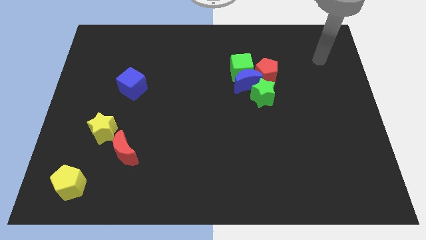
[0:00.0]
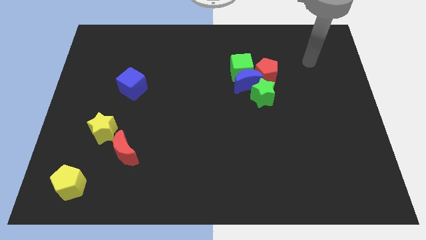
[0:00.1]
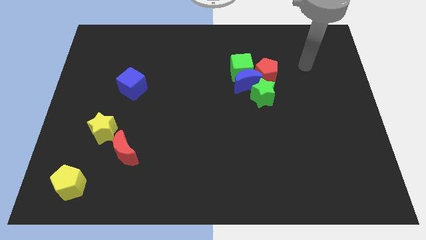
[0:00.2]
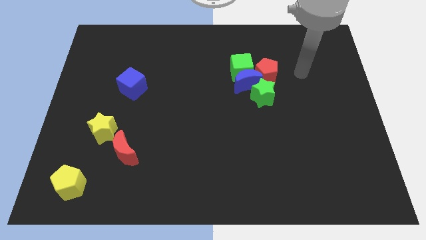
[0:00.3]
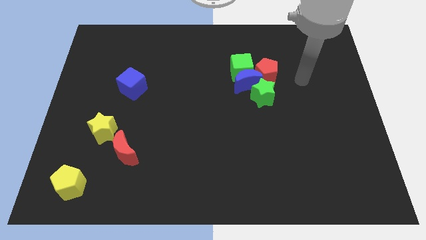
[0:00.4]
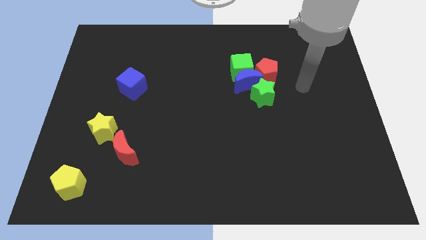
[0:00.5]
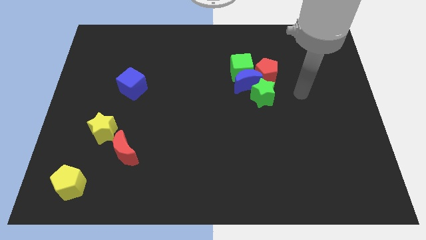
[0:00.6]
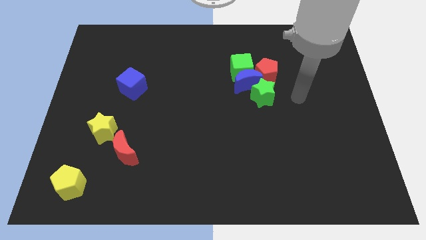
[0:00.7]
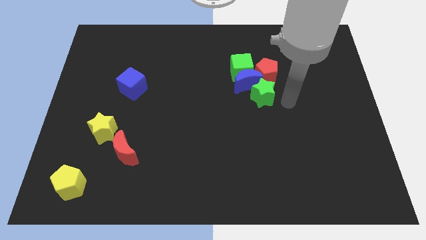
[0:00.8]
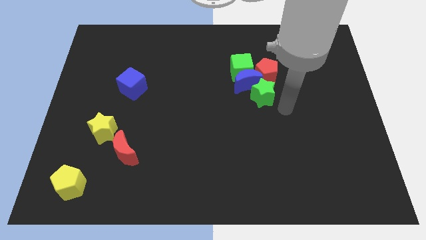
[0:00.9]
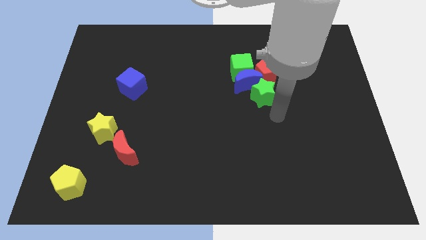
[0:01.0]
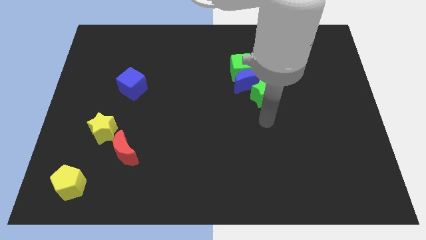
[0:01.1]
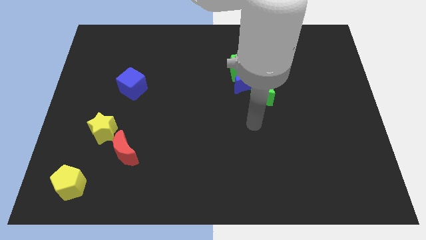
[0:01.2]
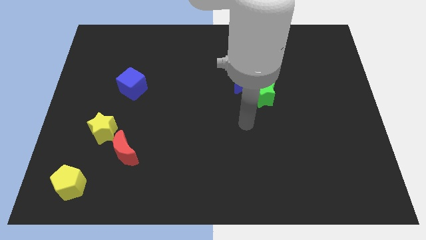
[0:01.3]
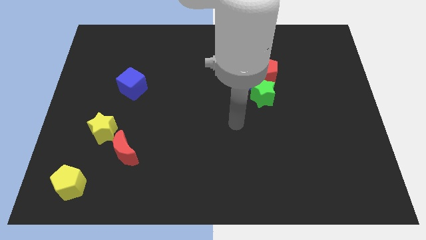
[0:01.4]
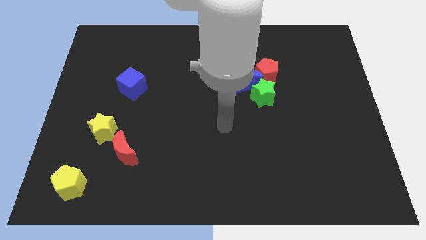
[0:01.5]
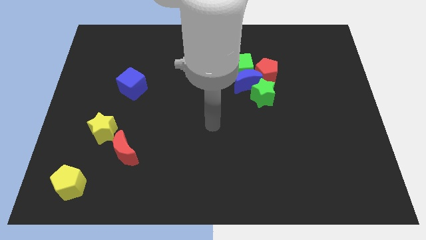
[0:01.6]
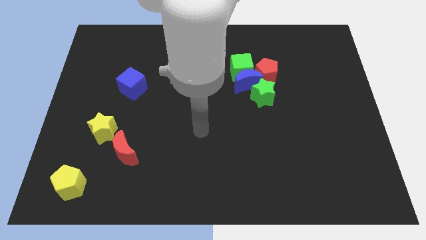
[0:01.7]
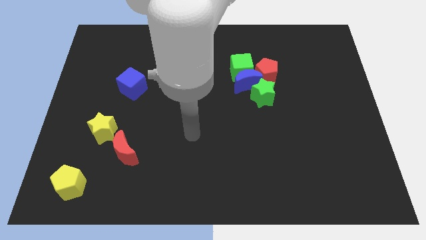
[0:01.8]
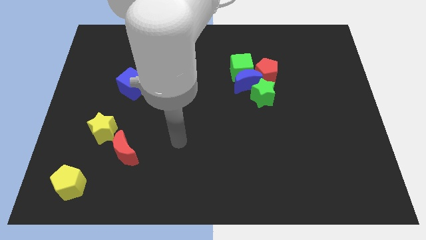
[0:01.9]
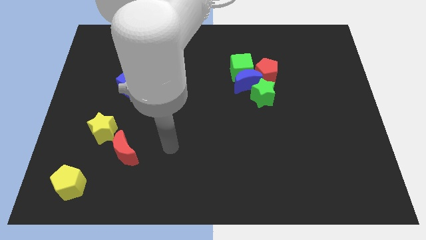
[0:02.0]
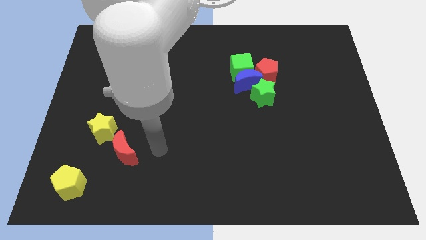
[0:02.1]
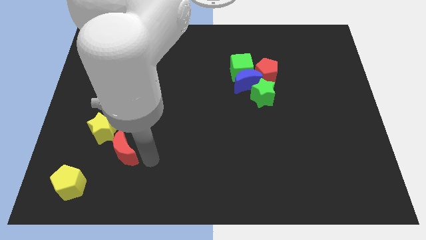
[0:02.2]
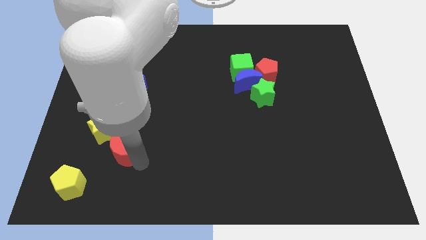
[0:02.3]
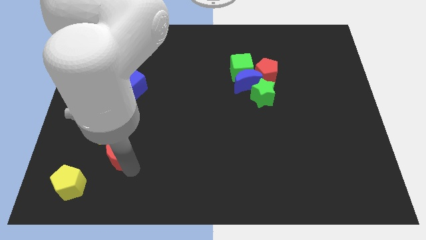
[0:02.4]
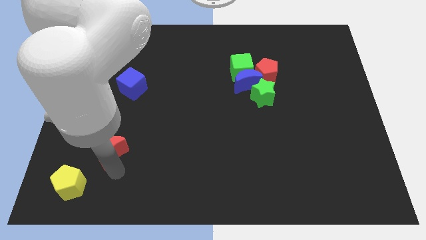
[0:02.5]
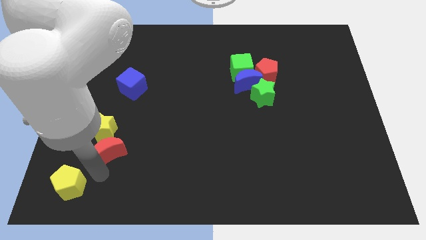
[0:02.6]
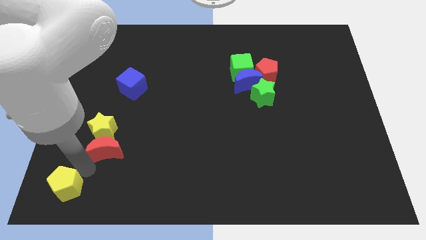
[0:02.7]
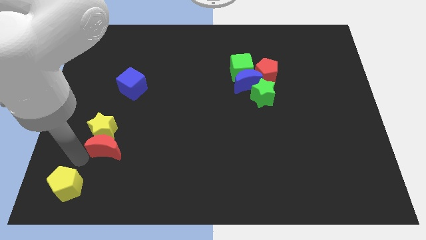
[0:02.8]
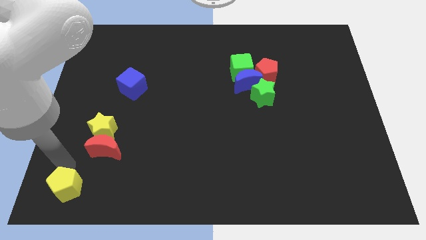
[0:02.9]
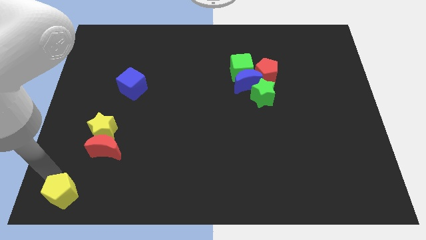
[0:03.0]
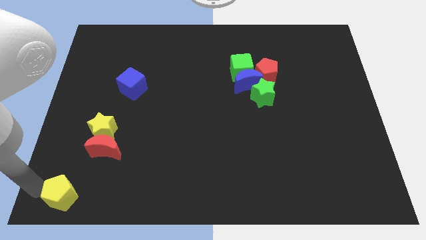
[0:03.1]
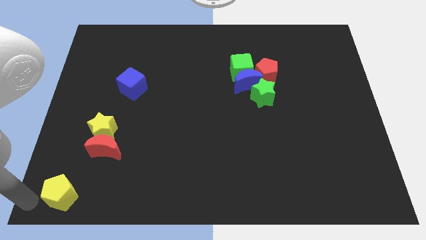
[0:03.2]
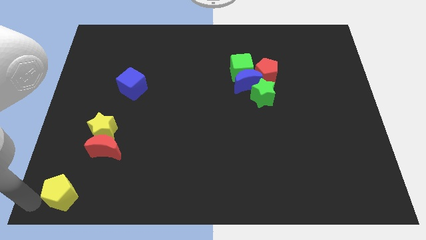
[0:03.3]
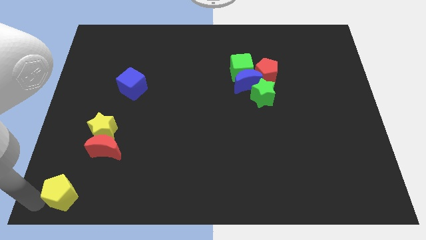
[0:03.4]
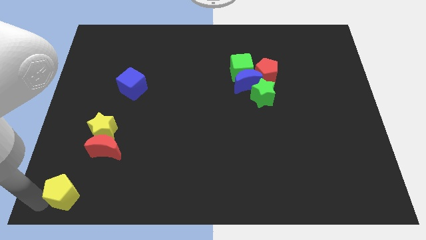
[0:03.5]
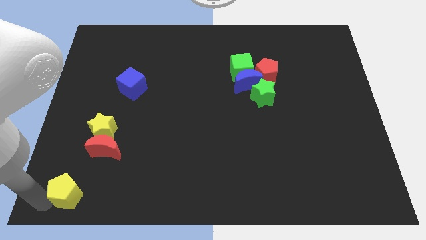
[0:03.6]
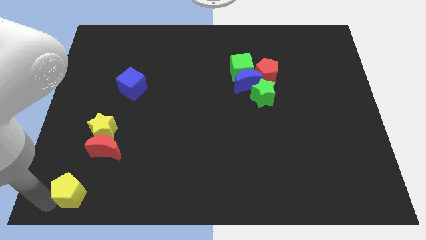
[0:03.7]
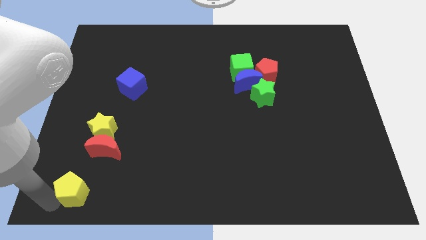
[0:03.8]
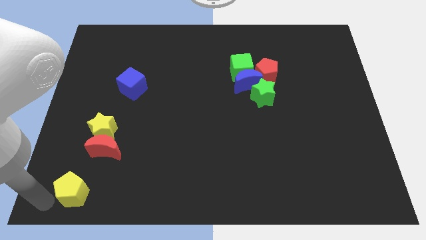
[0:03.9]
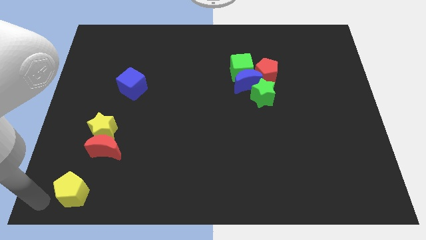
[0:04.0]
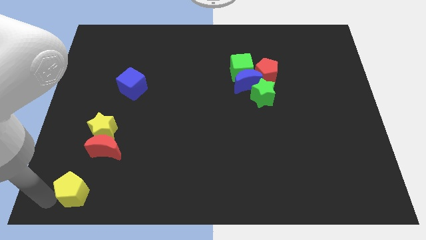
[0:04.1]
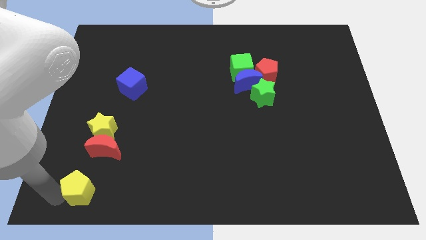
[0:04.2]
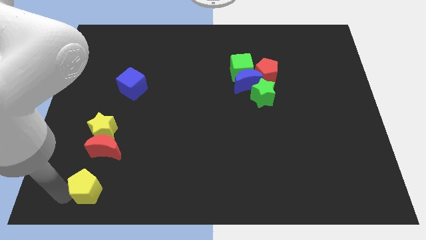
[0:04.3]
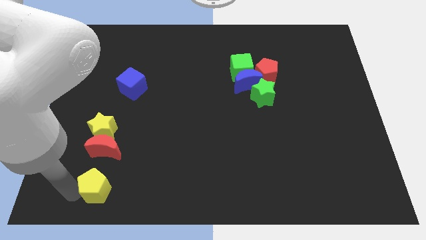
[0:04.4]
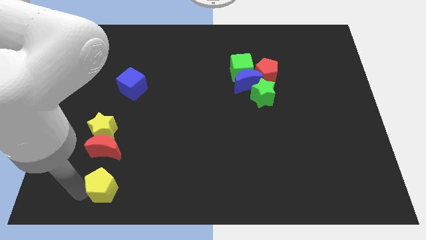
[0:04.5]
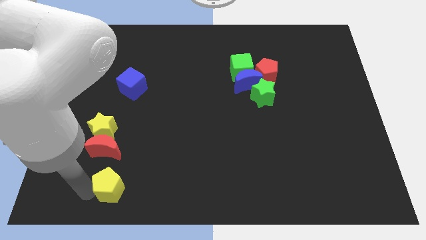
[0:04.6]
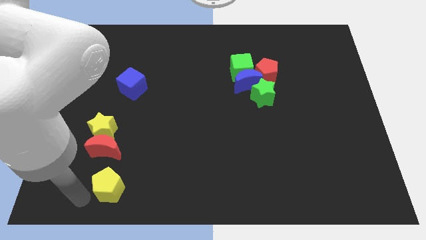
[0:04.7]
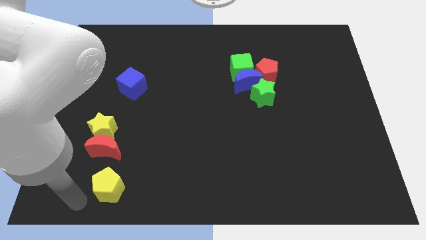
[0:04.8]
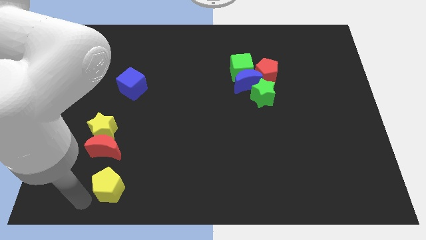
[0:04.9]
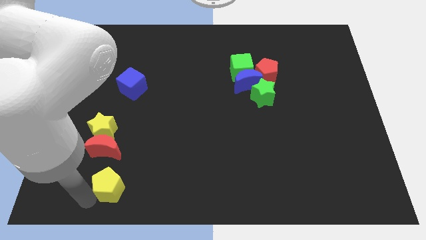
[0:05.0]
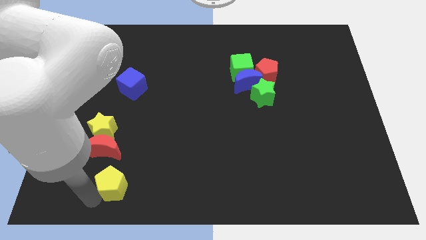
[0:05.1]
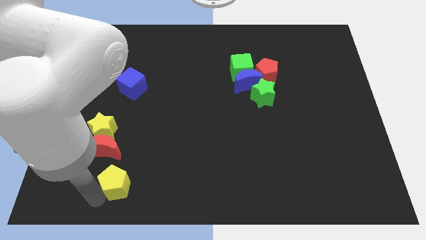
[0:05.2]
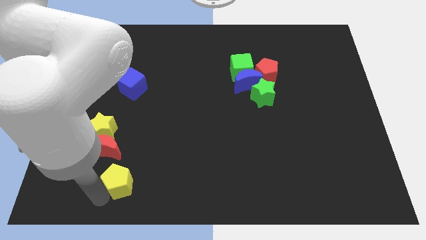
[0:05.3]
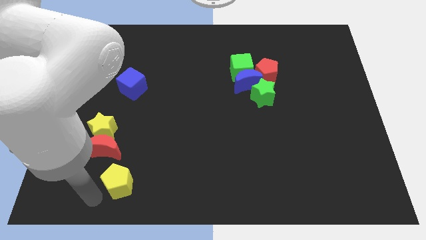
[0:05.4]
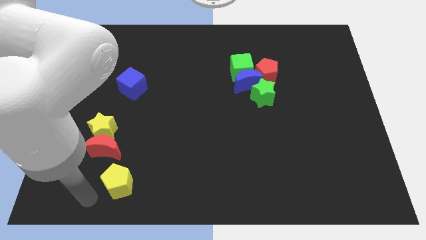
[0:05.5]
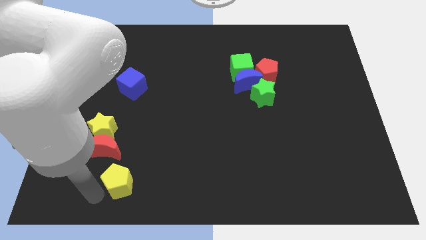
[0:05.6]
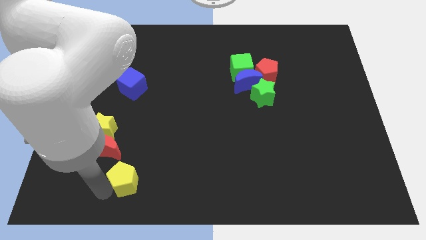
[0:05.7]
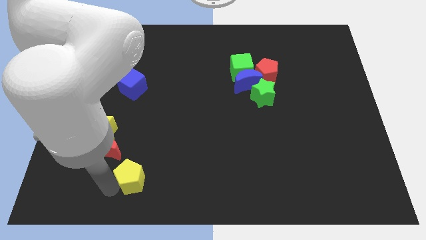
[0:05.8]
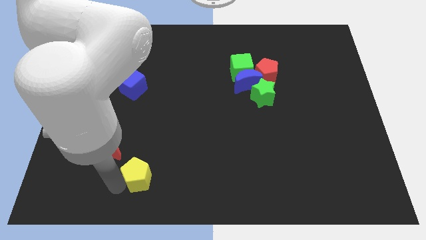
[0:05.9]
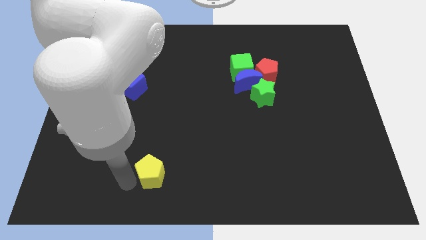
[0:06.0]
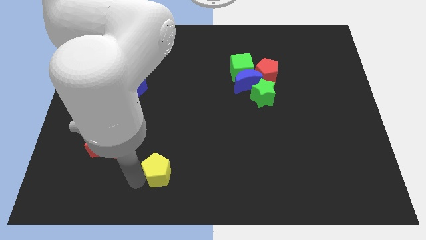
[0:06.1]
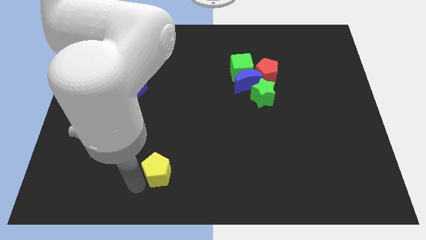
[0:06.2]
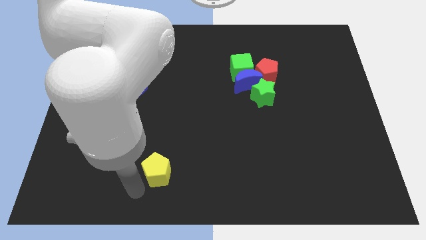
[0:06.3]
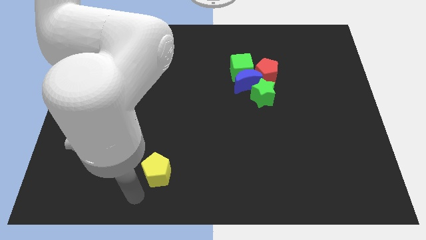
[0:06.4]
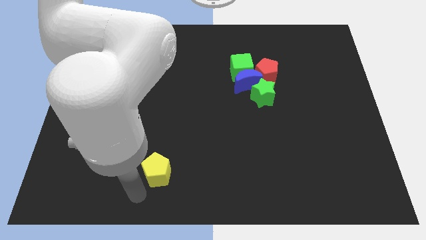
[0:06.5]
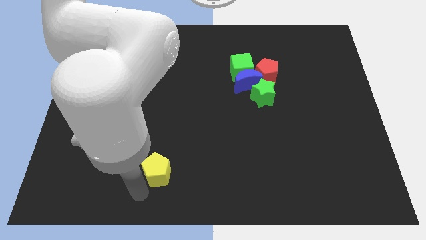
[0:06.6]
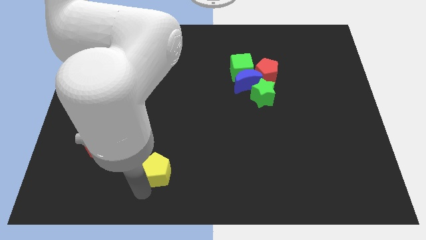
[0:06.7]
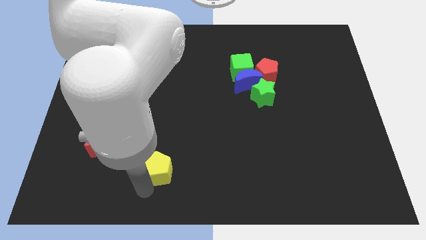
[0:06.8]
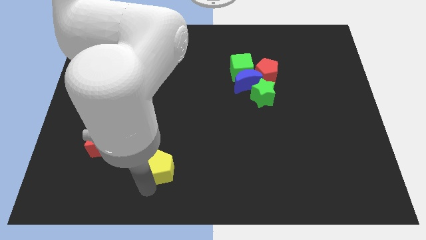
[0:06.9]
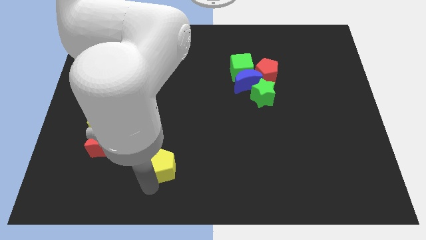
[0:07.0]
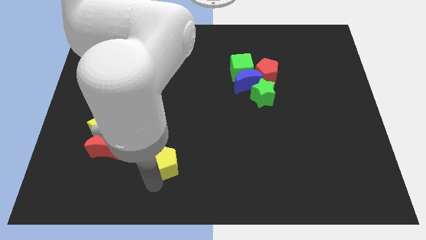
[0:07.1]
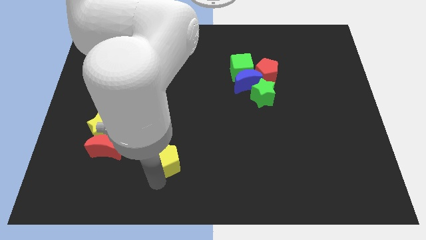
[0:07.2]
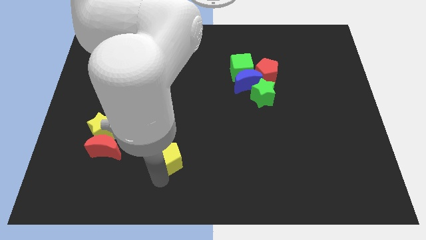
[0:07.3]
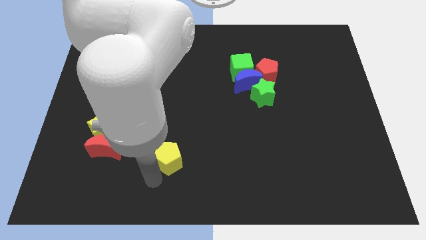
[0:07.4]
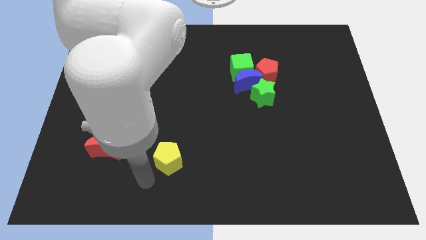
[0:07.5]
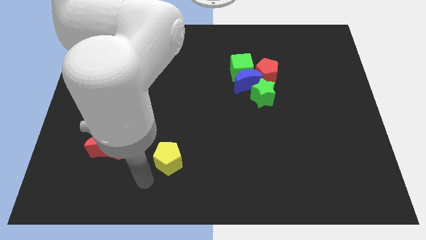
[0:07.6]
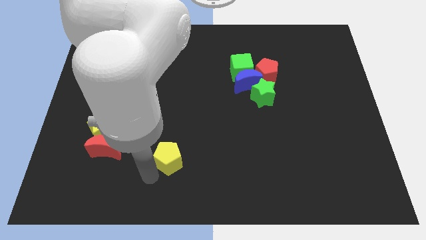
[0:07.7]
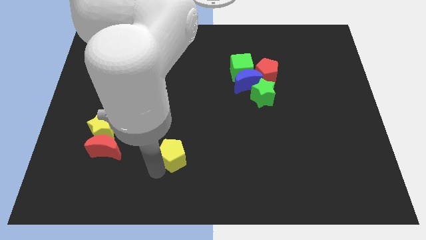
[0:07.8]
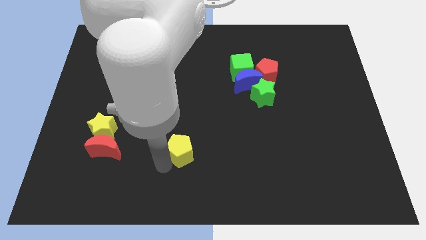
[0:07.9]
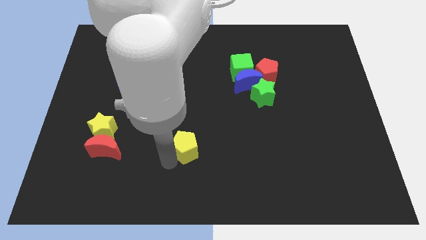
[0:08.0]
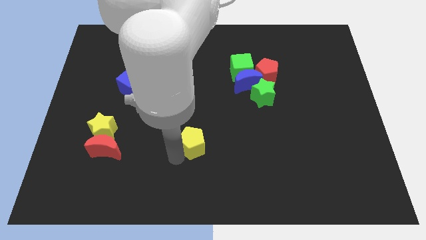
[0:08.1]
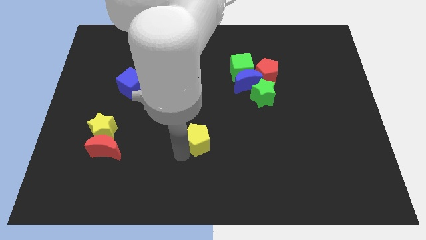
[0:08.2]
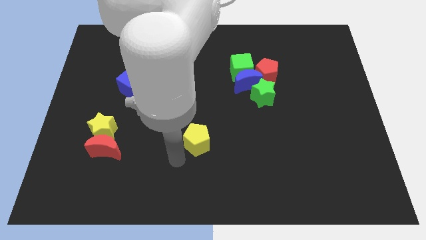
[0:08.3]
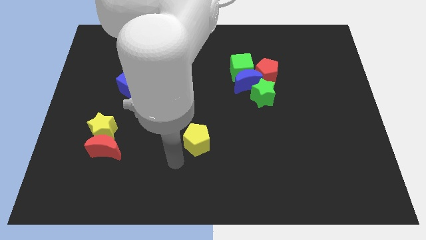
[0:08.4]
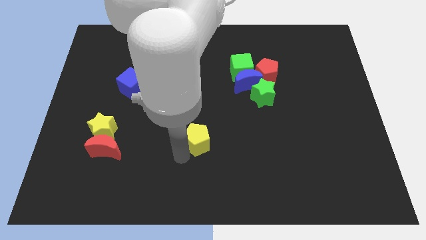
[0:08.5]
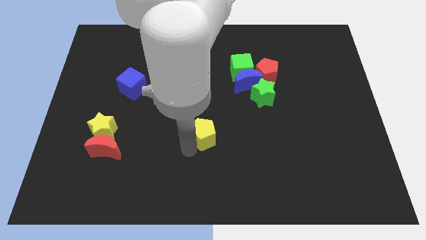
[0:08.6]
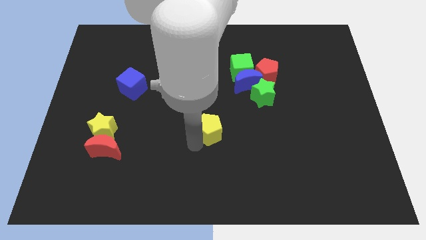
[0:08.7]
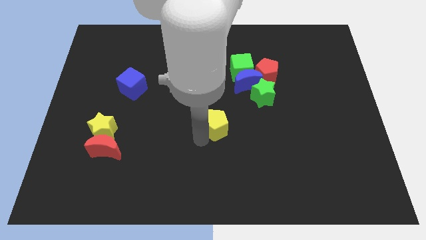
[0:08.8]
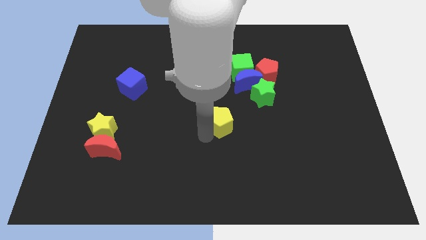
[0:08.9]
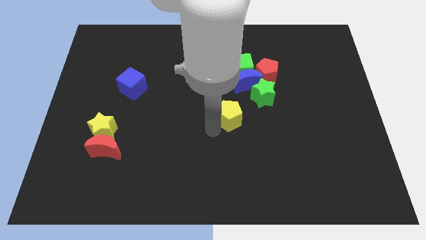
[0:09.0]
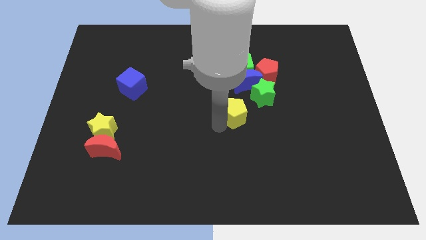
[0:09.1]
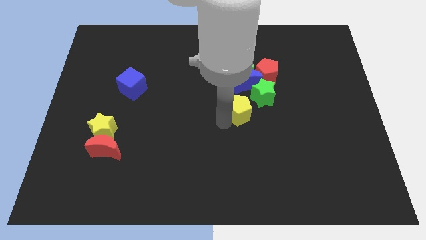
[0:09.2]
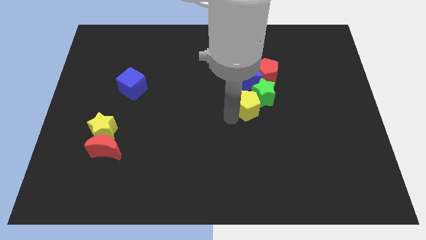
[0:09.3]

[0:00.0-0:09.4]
move the yellow pentagon next to the green star
